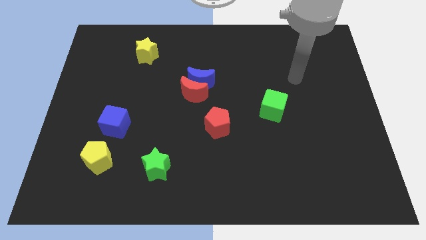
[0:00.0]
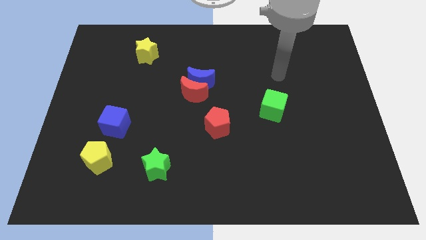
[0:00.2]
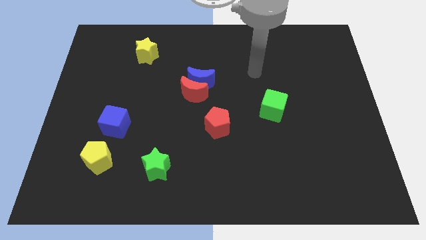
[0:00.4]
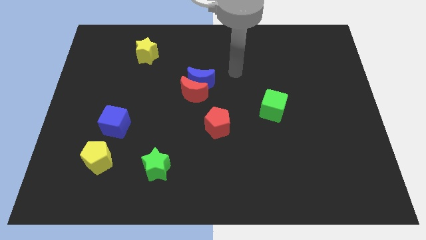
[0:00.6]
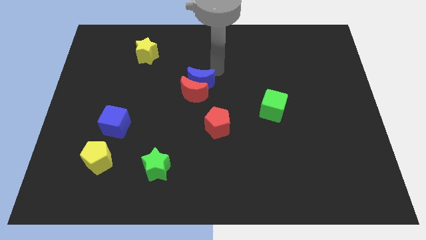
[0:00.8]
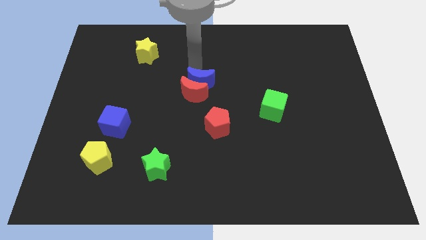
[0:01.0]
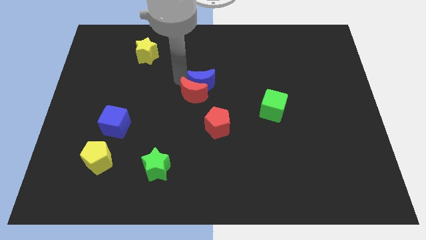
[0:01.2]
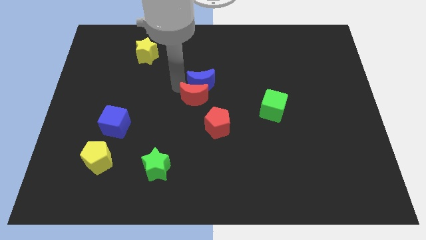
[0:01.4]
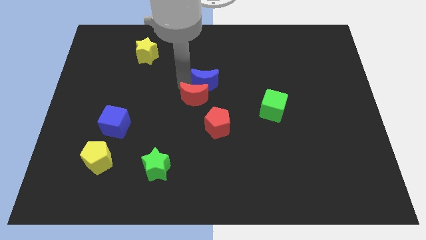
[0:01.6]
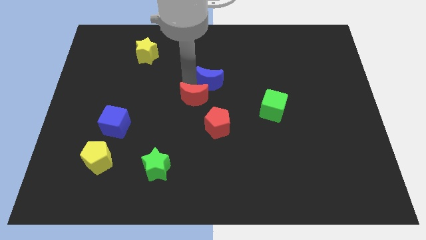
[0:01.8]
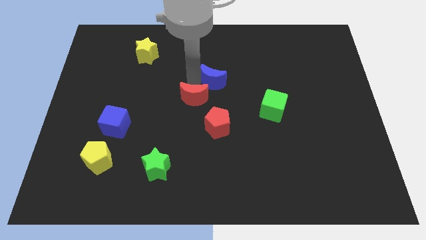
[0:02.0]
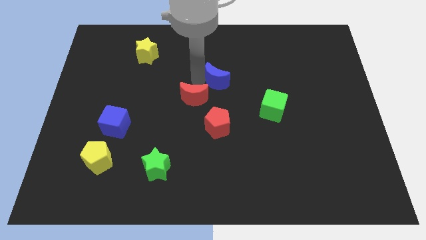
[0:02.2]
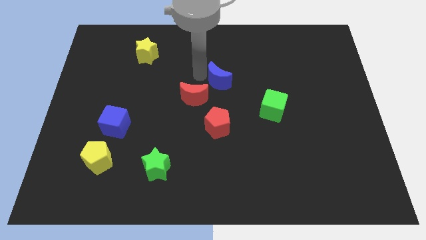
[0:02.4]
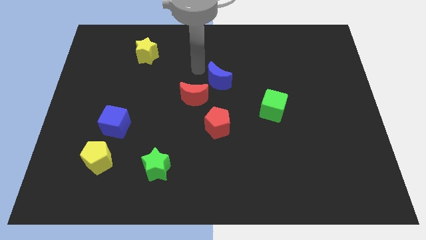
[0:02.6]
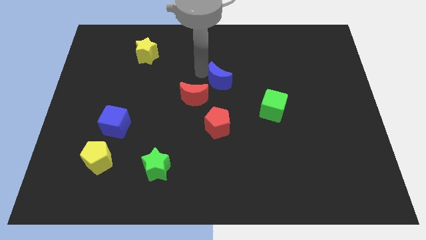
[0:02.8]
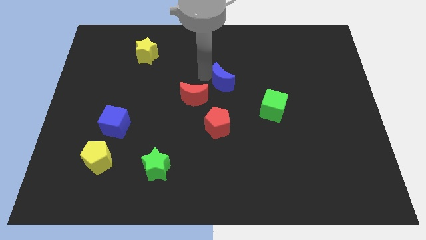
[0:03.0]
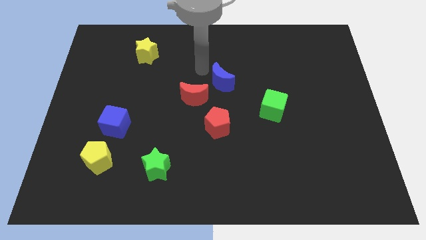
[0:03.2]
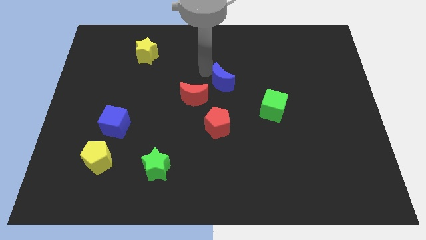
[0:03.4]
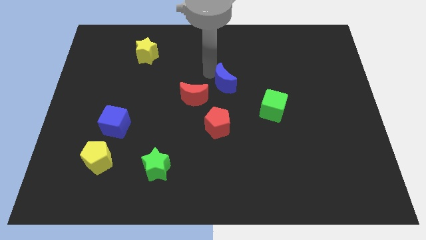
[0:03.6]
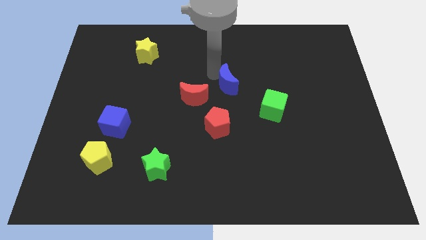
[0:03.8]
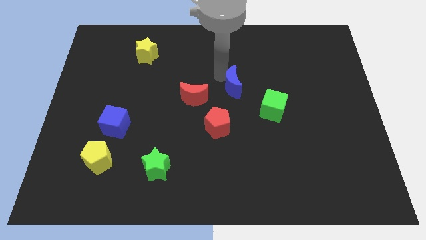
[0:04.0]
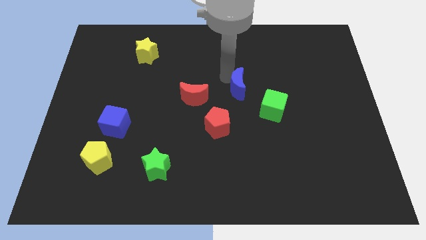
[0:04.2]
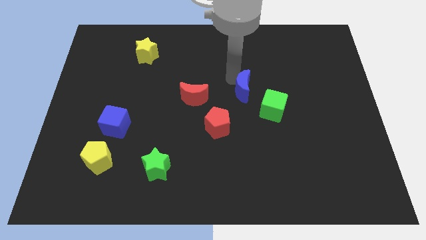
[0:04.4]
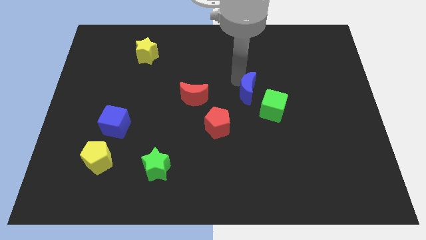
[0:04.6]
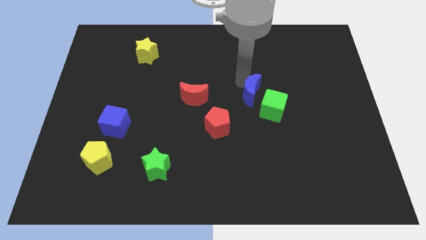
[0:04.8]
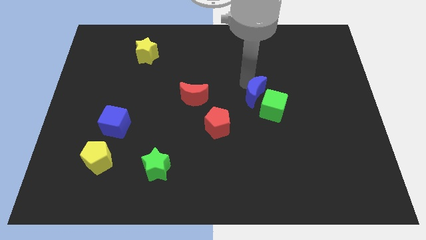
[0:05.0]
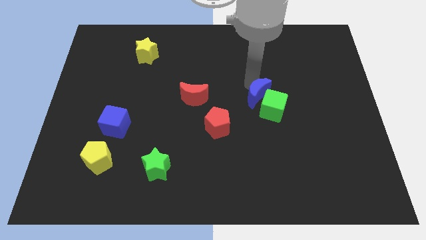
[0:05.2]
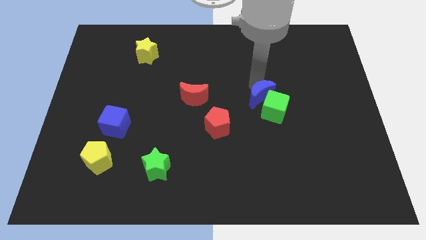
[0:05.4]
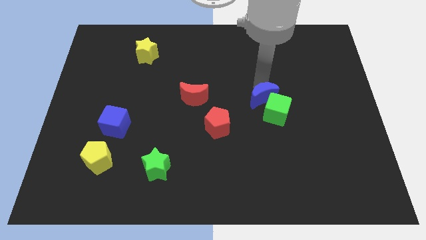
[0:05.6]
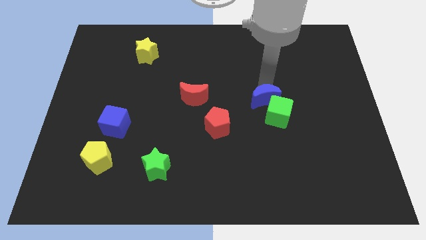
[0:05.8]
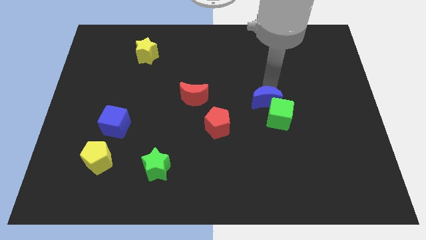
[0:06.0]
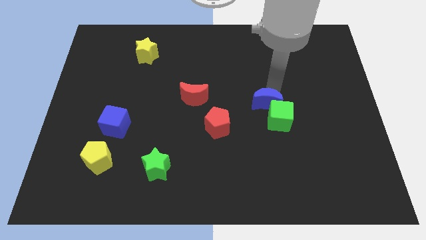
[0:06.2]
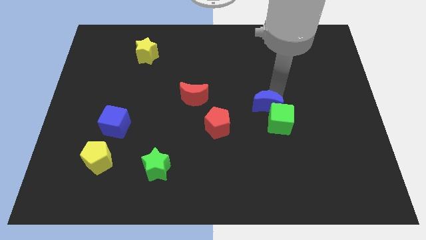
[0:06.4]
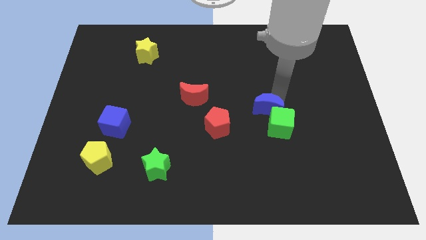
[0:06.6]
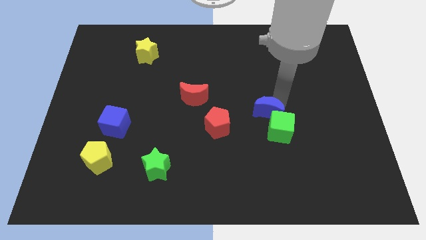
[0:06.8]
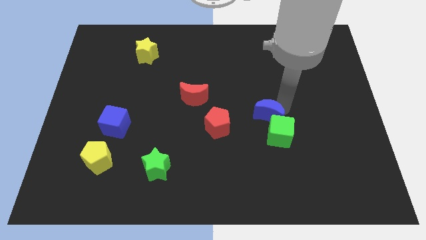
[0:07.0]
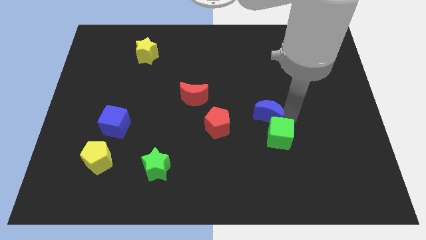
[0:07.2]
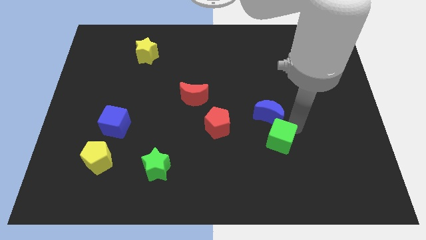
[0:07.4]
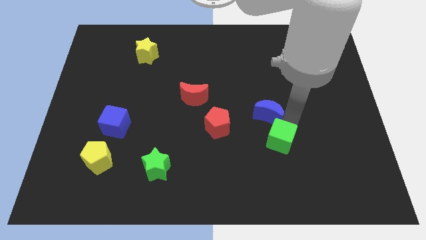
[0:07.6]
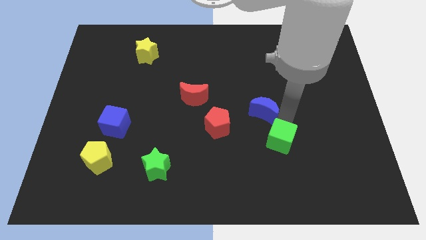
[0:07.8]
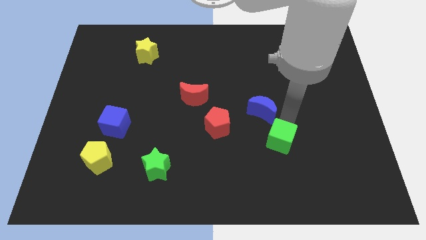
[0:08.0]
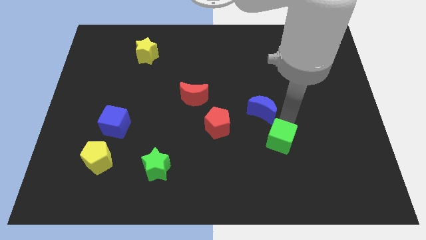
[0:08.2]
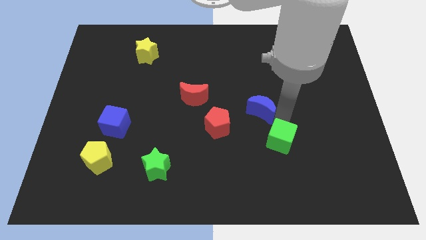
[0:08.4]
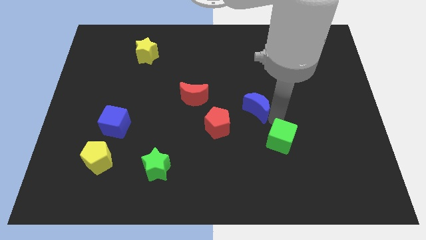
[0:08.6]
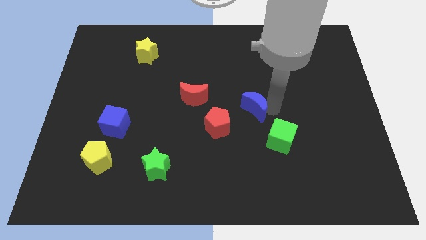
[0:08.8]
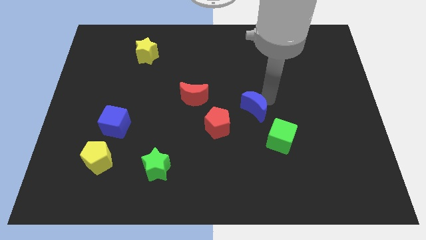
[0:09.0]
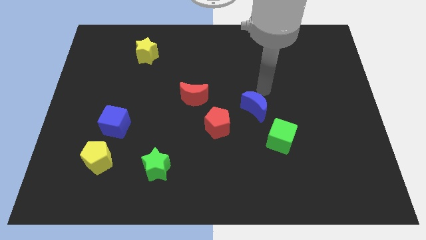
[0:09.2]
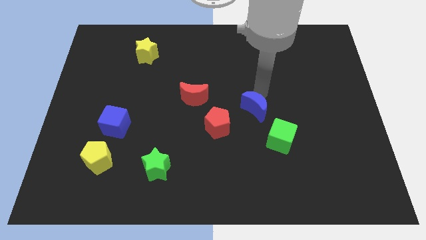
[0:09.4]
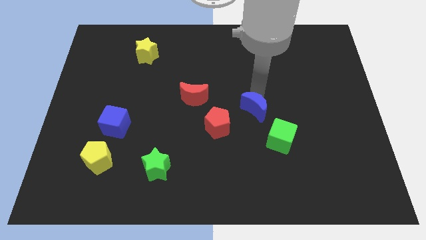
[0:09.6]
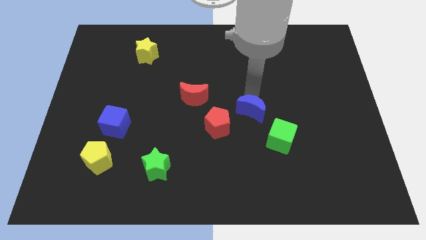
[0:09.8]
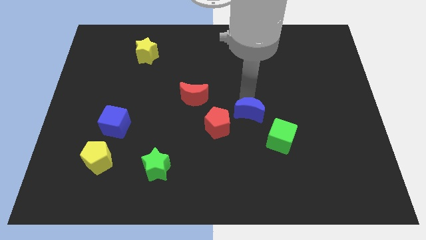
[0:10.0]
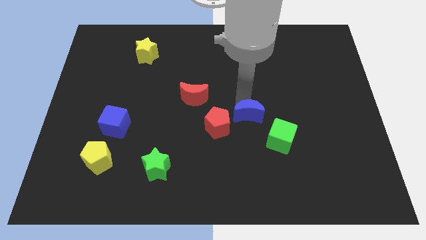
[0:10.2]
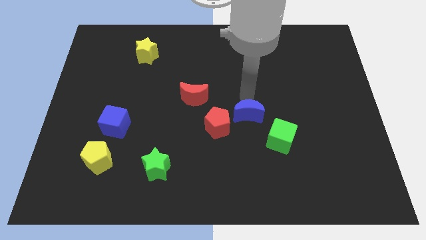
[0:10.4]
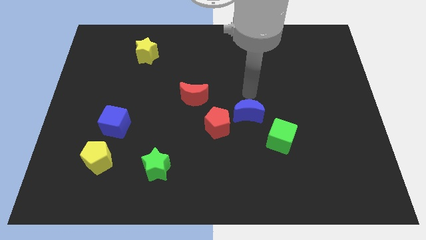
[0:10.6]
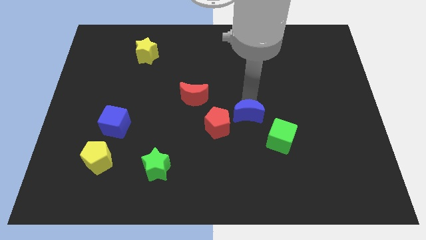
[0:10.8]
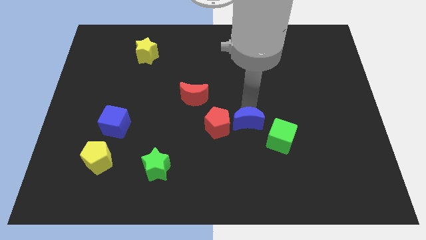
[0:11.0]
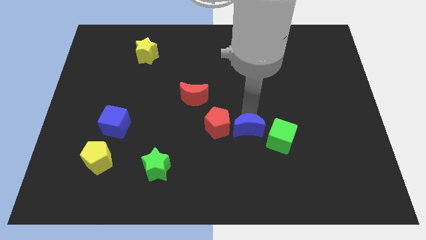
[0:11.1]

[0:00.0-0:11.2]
slide the blue moon to the bottom right side of the red pentagon
